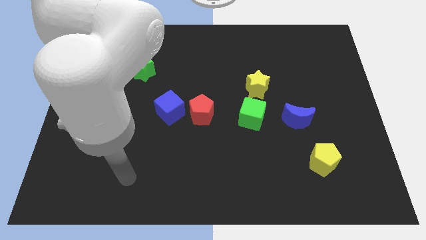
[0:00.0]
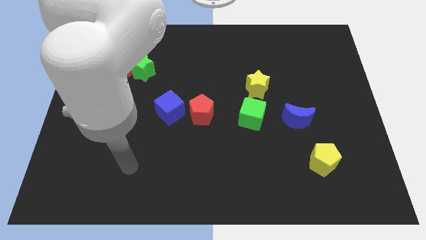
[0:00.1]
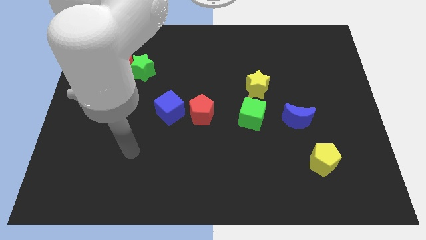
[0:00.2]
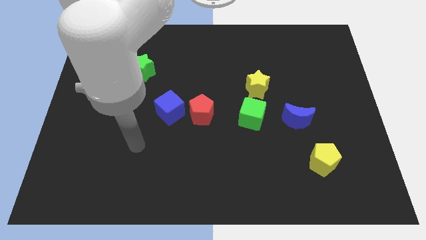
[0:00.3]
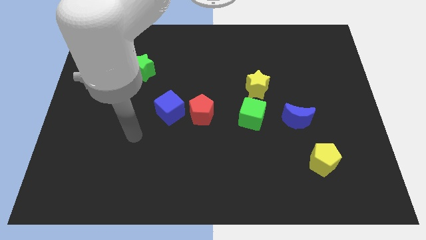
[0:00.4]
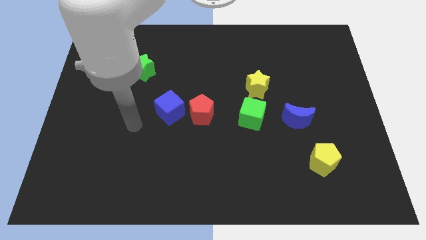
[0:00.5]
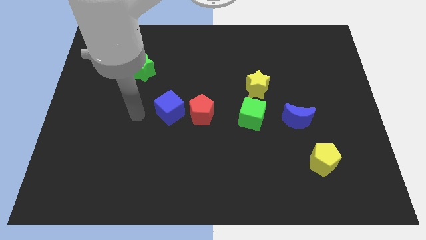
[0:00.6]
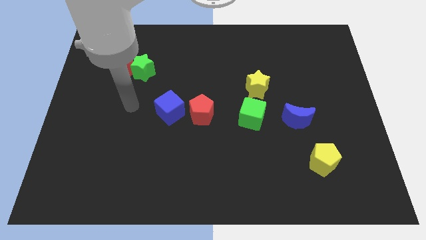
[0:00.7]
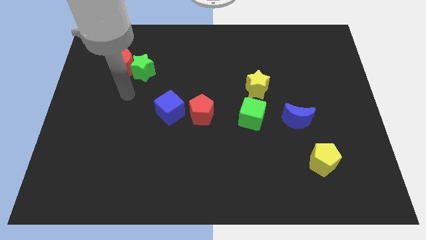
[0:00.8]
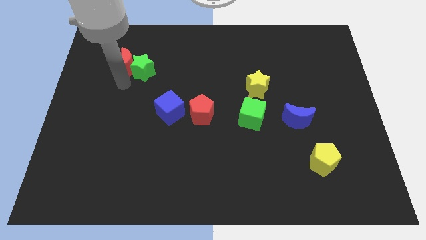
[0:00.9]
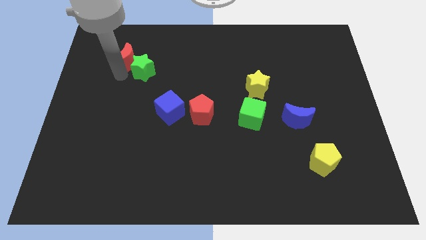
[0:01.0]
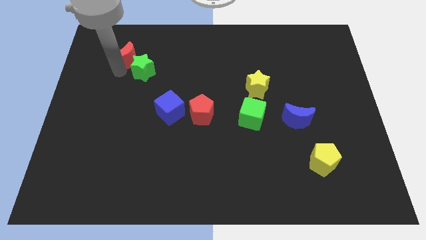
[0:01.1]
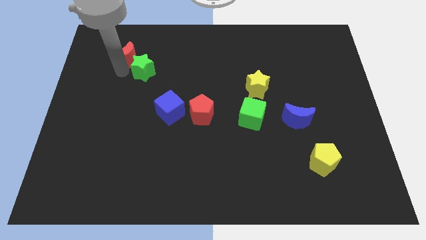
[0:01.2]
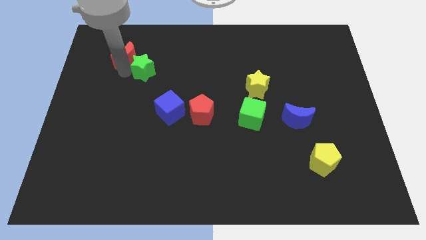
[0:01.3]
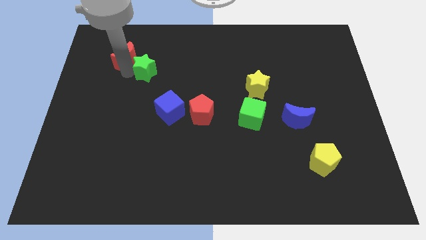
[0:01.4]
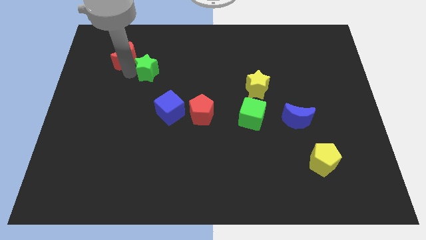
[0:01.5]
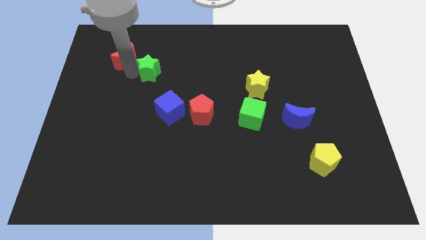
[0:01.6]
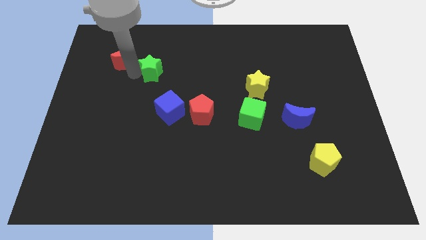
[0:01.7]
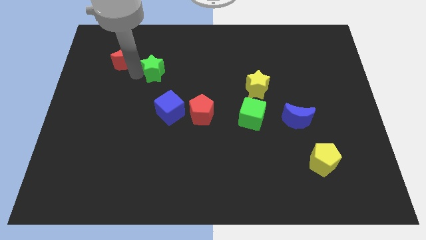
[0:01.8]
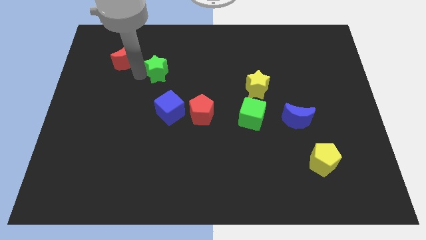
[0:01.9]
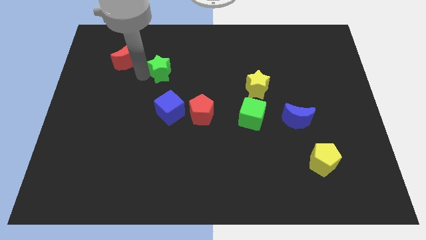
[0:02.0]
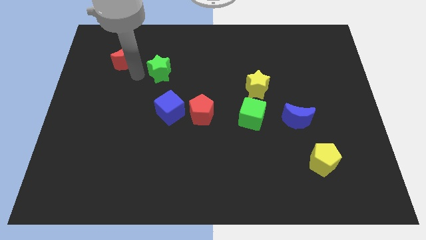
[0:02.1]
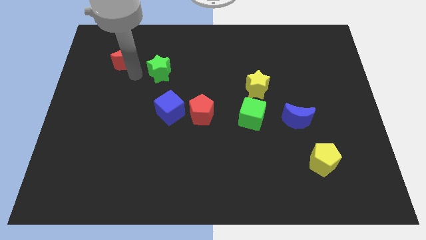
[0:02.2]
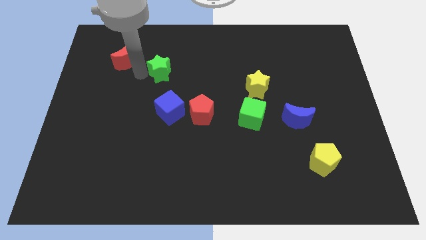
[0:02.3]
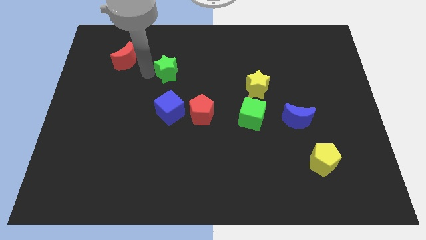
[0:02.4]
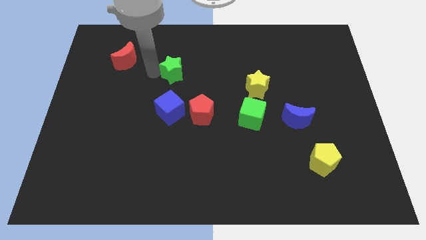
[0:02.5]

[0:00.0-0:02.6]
slightly slide the green star right

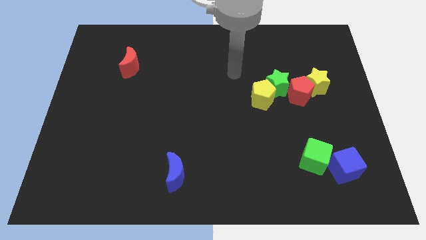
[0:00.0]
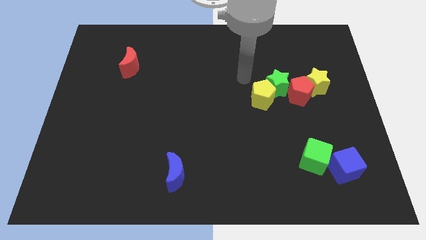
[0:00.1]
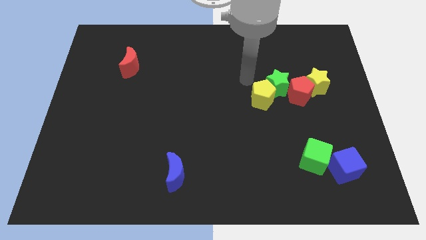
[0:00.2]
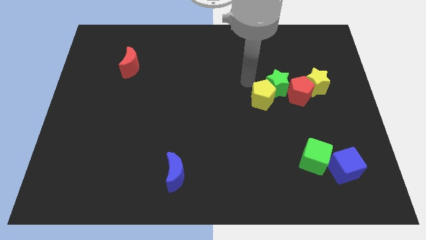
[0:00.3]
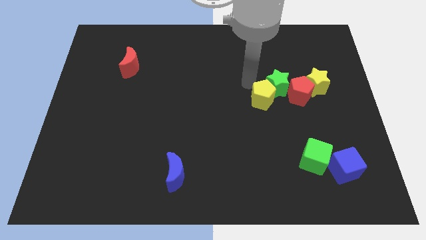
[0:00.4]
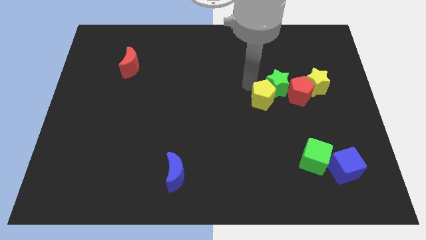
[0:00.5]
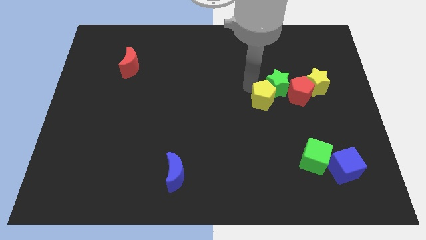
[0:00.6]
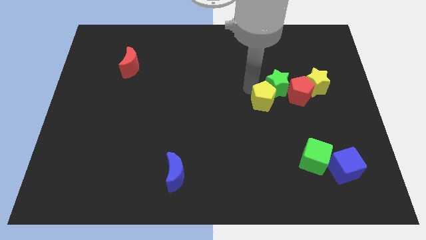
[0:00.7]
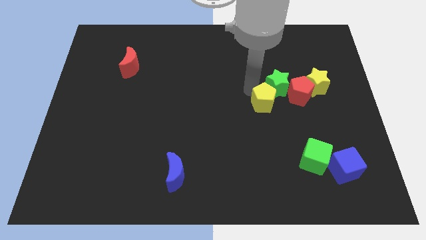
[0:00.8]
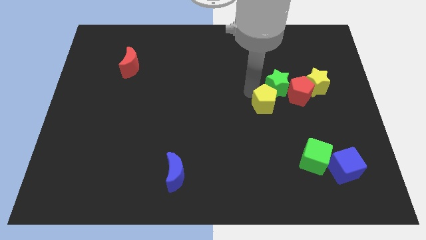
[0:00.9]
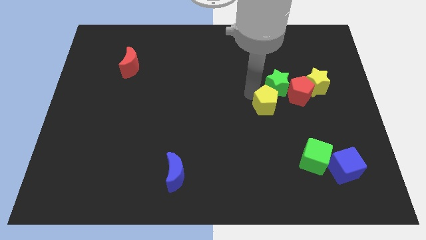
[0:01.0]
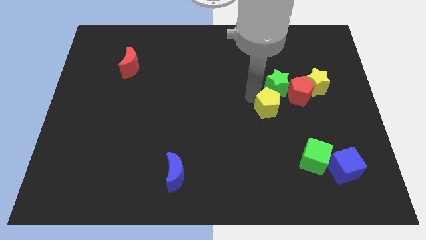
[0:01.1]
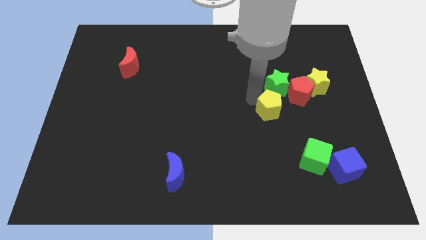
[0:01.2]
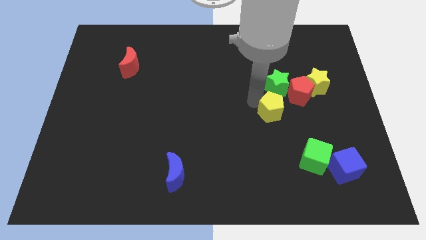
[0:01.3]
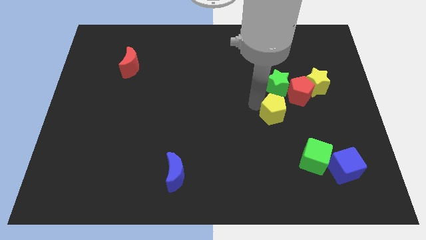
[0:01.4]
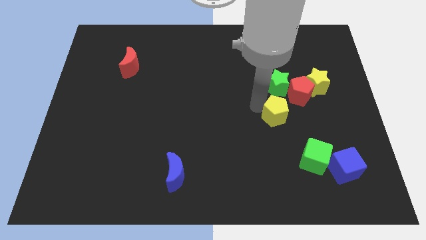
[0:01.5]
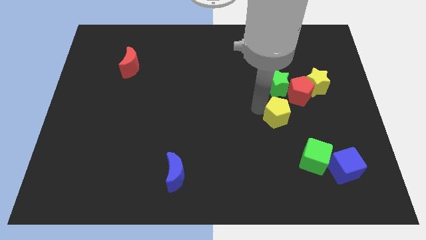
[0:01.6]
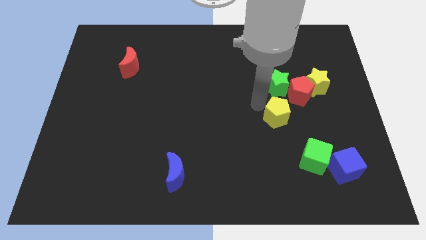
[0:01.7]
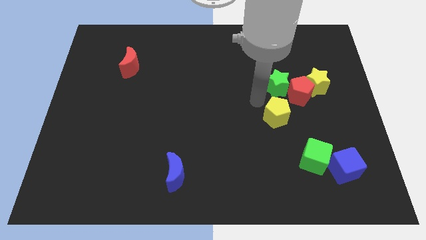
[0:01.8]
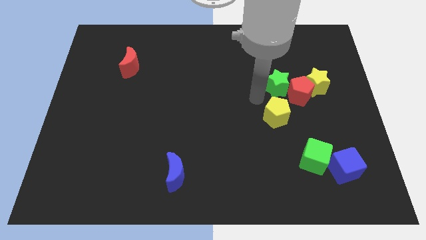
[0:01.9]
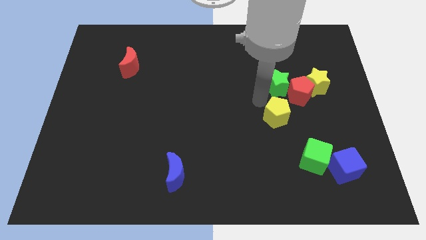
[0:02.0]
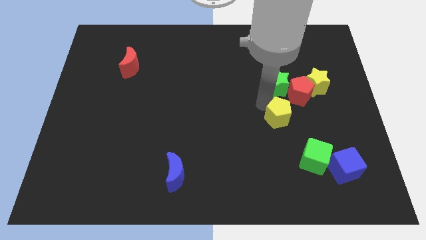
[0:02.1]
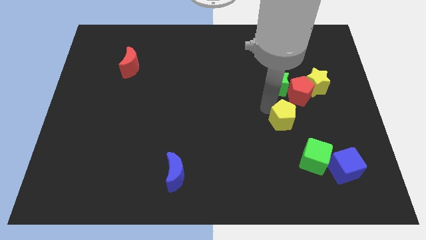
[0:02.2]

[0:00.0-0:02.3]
push the yellow pentagon downwards and then right somewhat

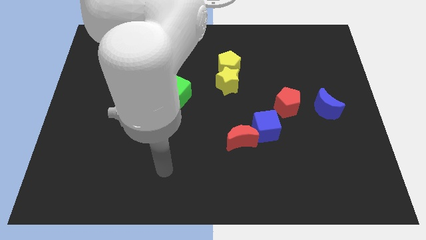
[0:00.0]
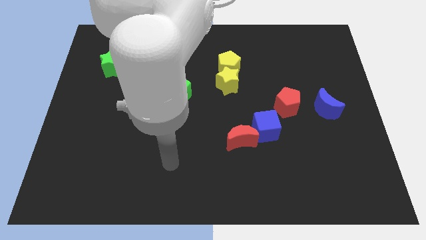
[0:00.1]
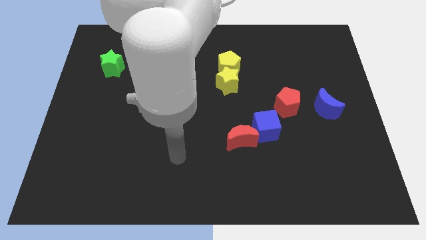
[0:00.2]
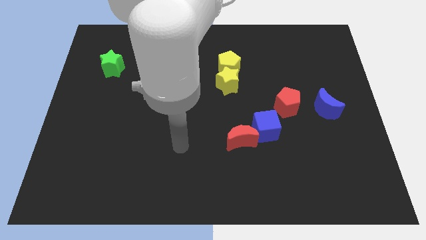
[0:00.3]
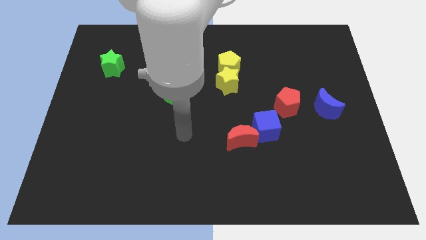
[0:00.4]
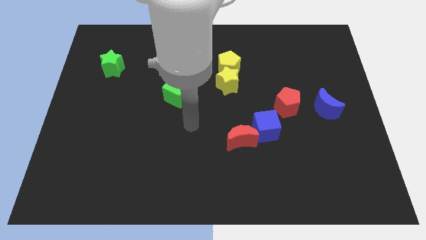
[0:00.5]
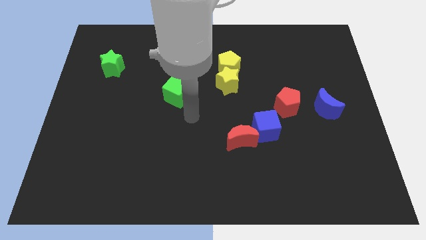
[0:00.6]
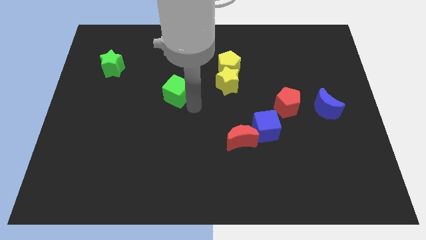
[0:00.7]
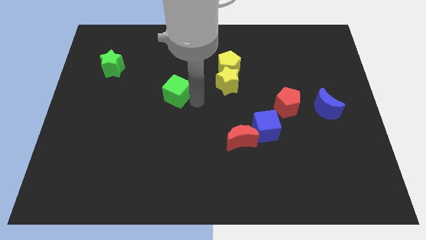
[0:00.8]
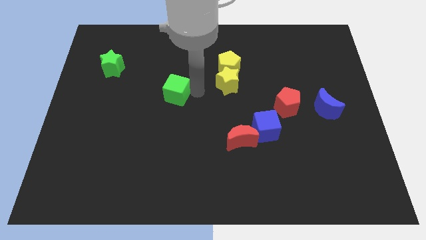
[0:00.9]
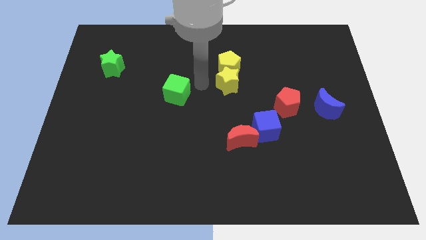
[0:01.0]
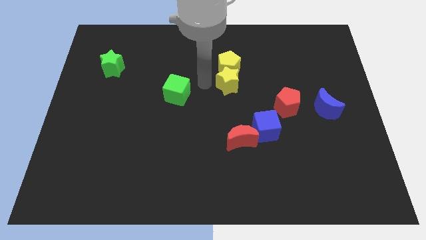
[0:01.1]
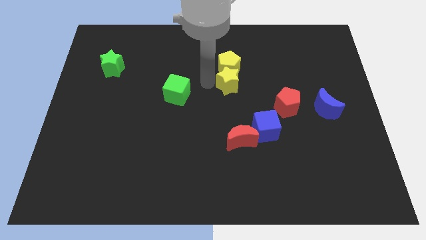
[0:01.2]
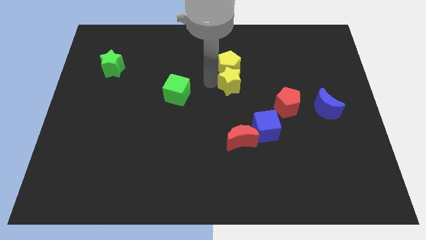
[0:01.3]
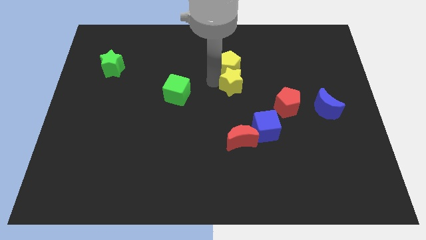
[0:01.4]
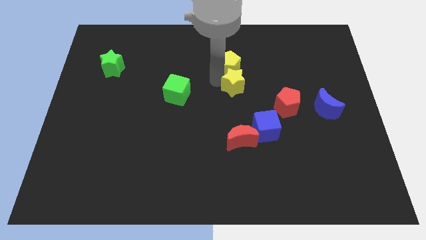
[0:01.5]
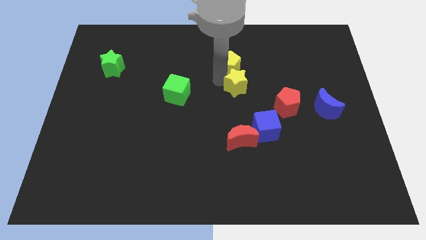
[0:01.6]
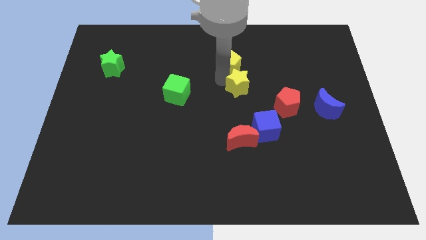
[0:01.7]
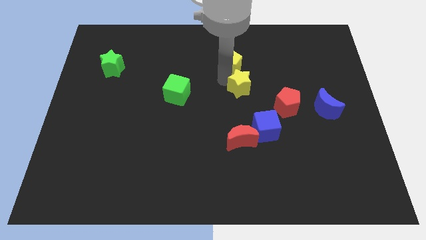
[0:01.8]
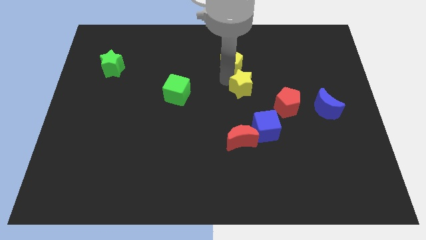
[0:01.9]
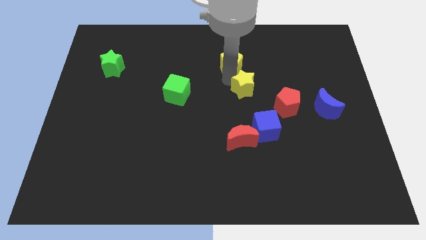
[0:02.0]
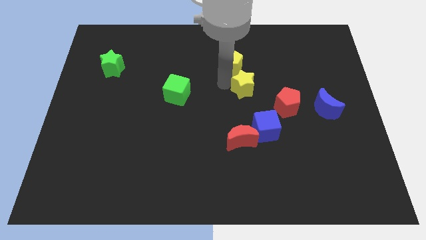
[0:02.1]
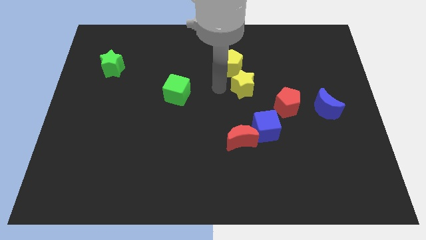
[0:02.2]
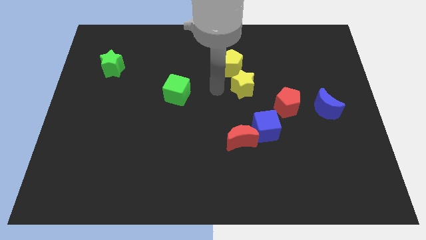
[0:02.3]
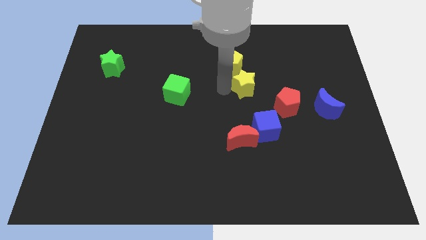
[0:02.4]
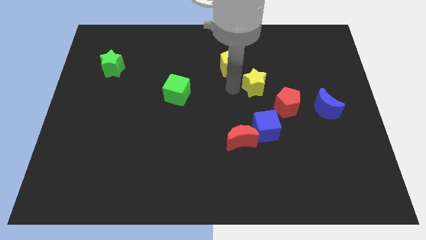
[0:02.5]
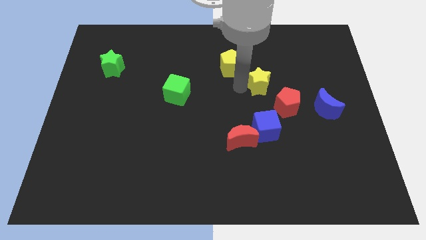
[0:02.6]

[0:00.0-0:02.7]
slightly slide the yellow star right

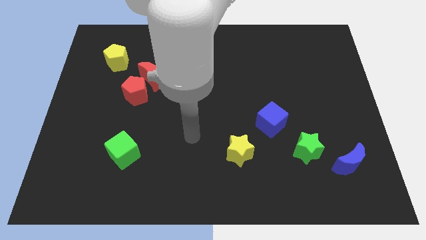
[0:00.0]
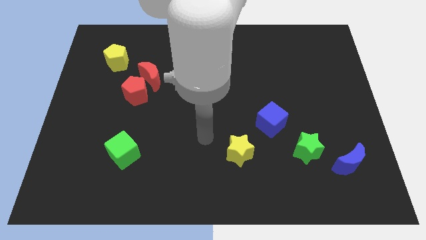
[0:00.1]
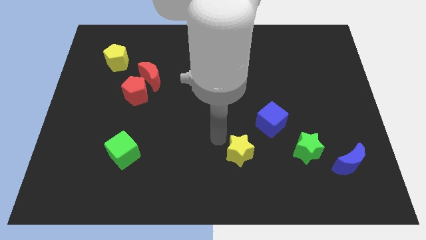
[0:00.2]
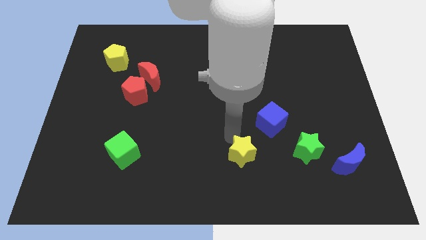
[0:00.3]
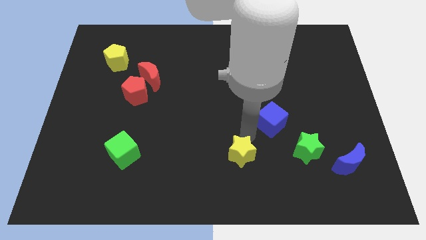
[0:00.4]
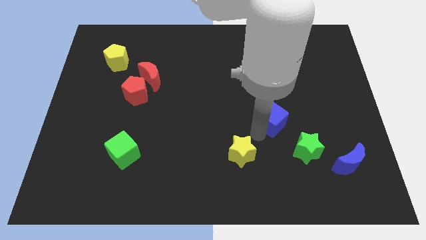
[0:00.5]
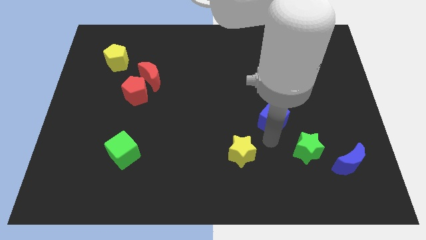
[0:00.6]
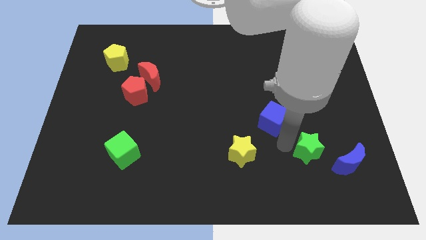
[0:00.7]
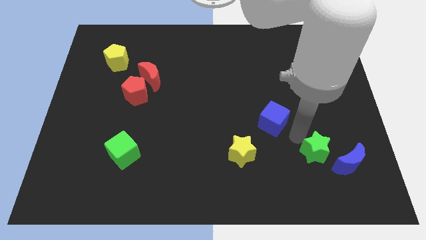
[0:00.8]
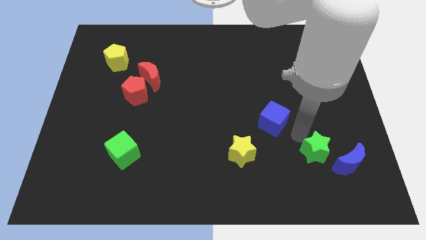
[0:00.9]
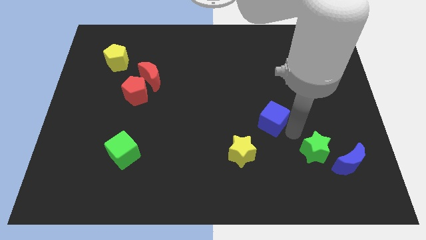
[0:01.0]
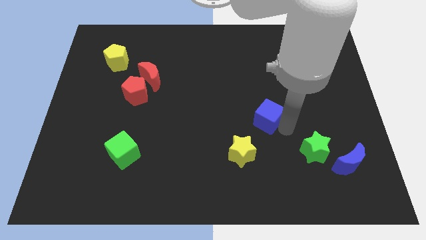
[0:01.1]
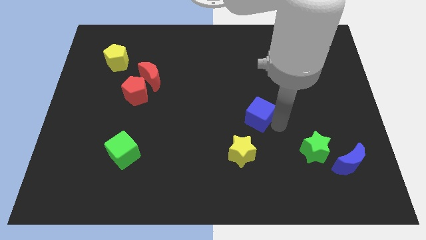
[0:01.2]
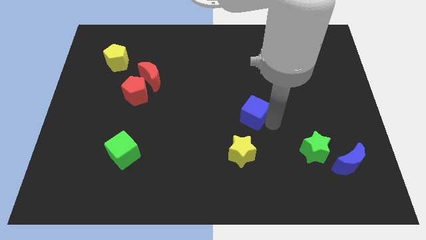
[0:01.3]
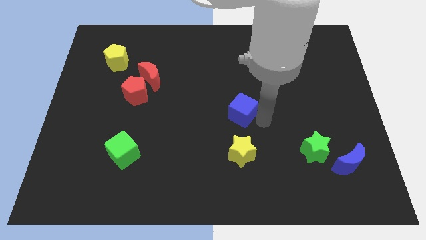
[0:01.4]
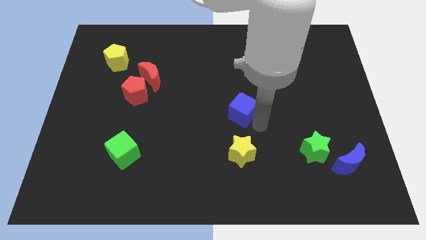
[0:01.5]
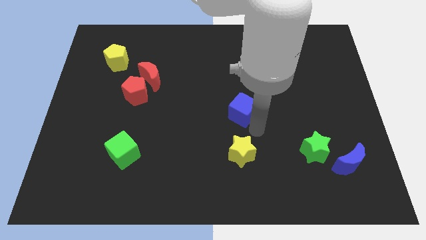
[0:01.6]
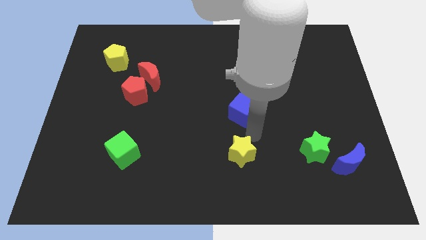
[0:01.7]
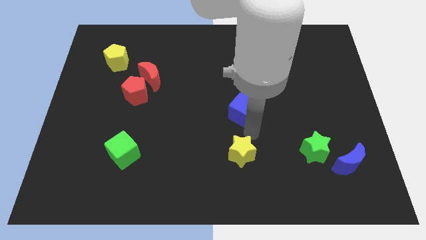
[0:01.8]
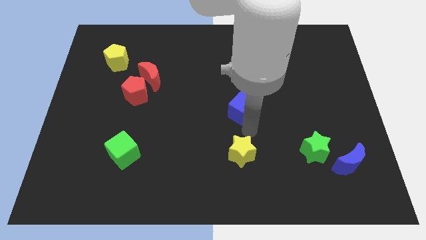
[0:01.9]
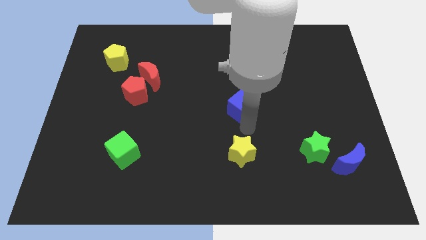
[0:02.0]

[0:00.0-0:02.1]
push the blue cube a bit up and then left
